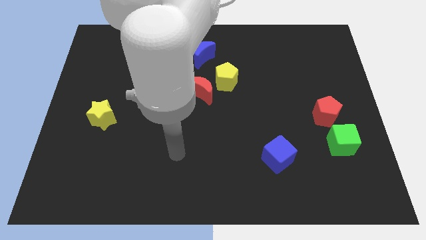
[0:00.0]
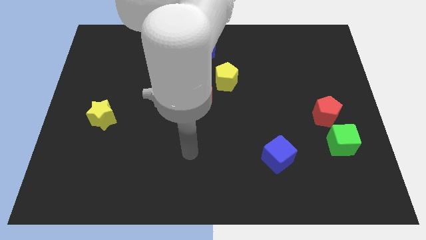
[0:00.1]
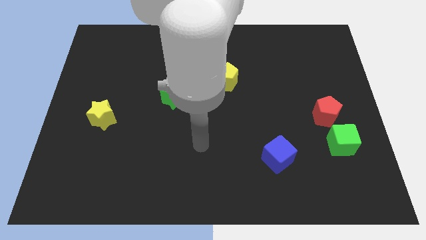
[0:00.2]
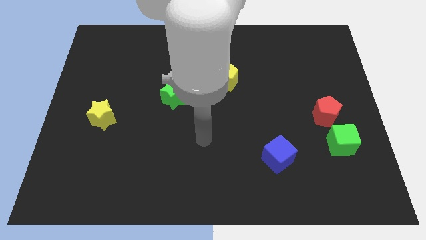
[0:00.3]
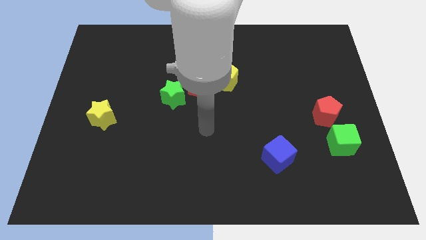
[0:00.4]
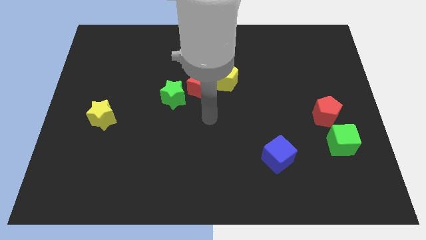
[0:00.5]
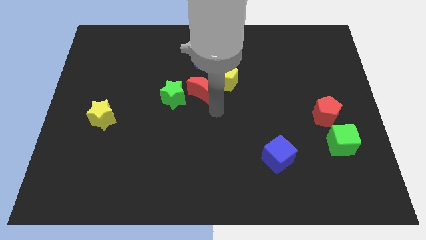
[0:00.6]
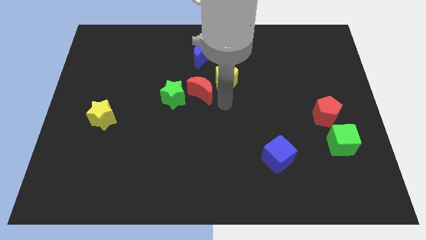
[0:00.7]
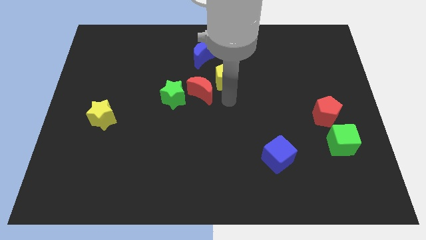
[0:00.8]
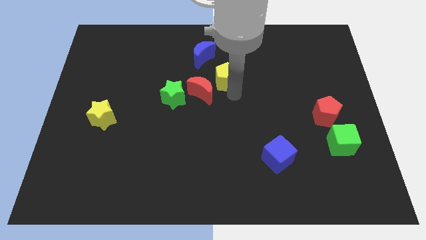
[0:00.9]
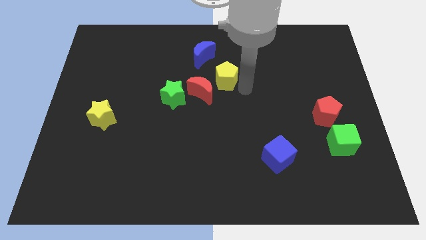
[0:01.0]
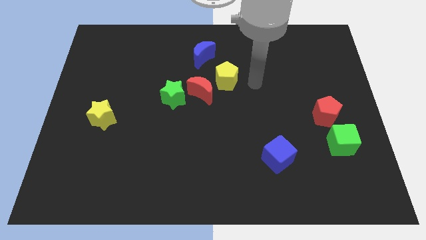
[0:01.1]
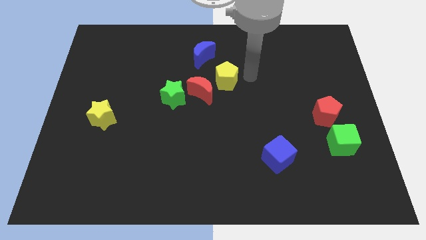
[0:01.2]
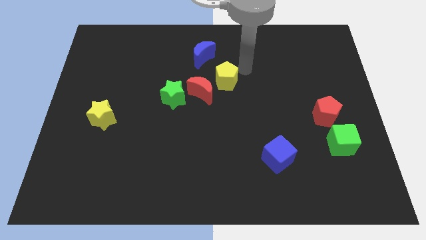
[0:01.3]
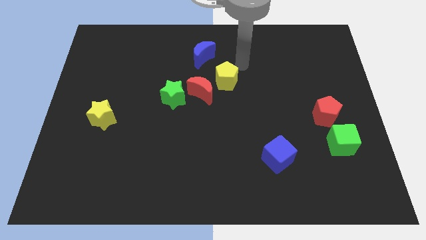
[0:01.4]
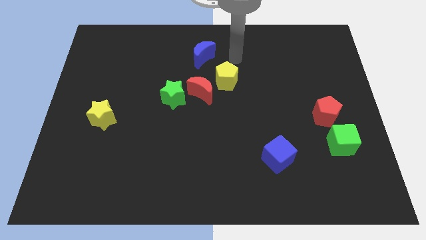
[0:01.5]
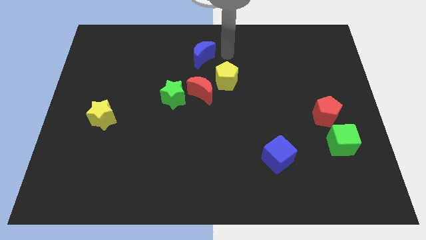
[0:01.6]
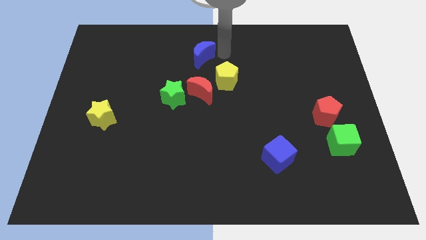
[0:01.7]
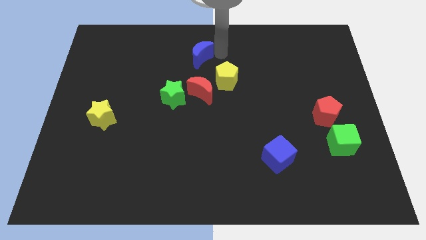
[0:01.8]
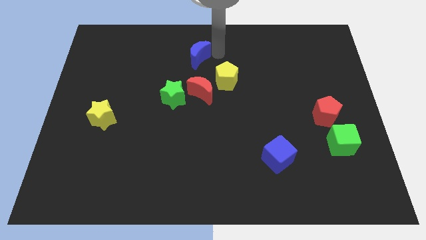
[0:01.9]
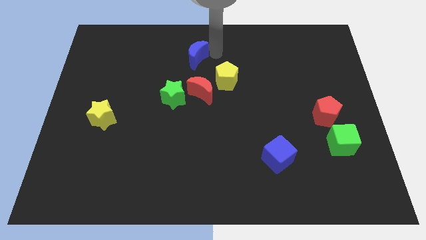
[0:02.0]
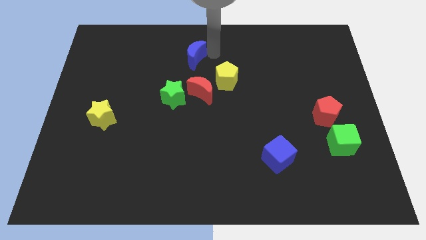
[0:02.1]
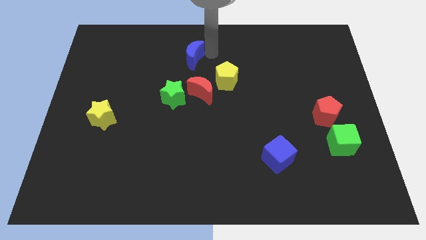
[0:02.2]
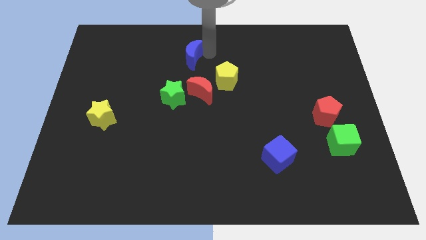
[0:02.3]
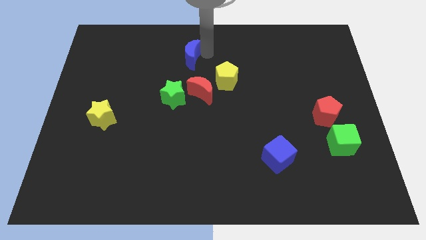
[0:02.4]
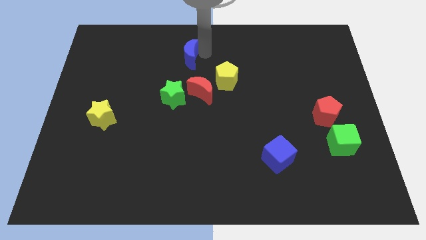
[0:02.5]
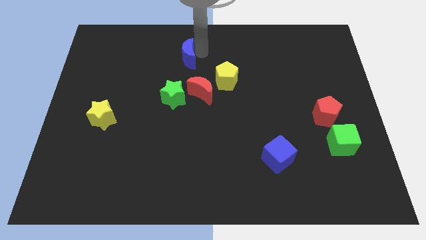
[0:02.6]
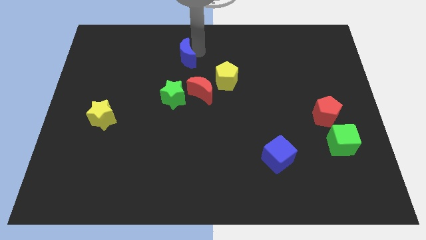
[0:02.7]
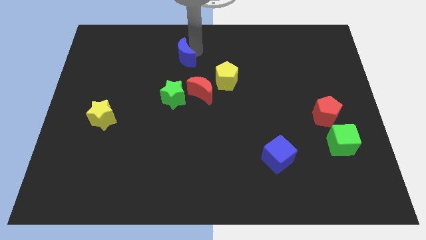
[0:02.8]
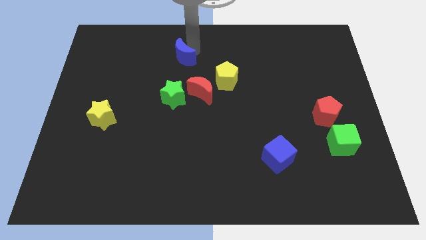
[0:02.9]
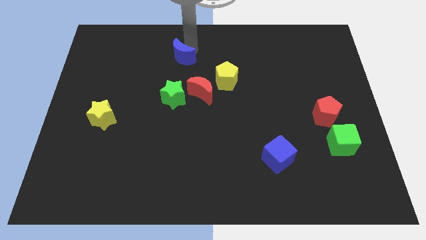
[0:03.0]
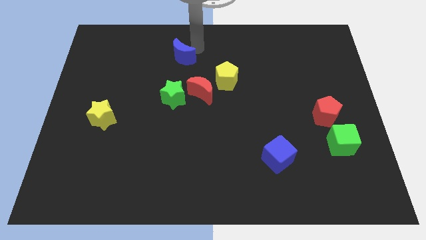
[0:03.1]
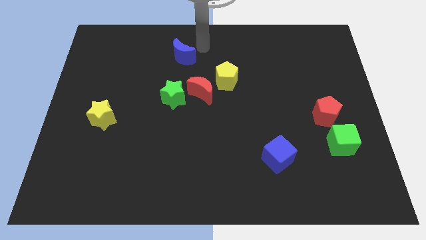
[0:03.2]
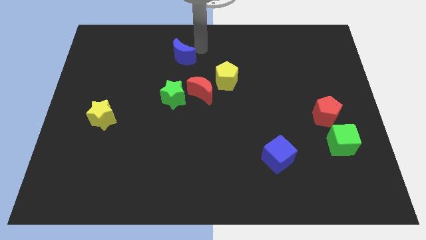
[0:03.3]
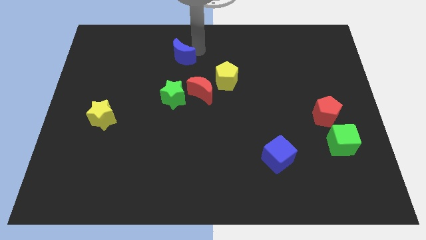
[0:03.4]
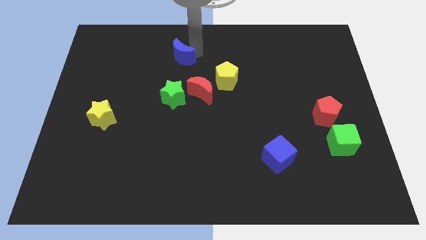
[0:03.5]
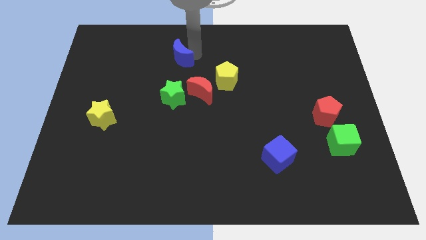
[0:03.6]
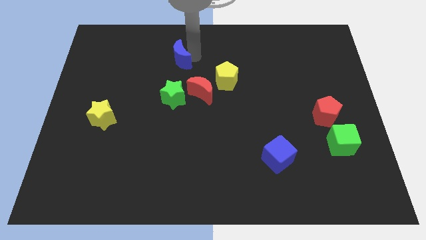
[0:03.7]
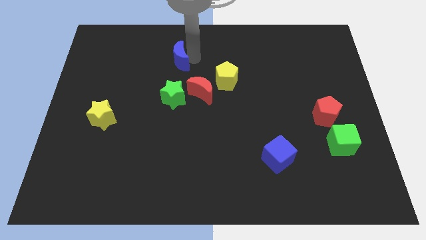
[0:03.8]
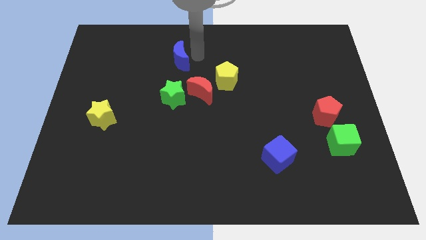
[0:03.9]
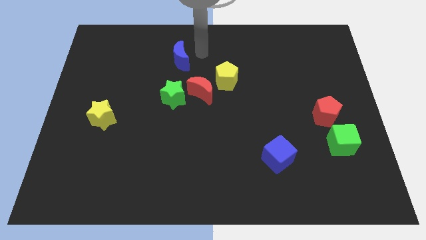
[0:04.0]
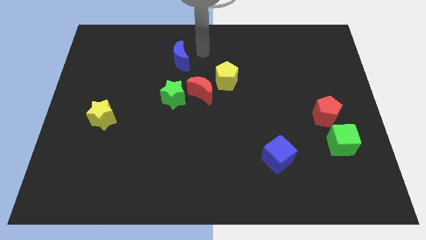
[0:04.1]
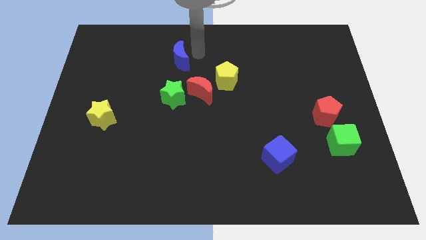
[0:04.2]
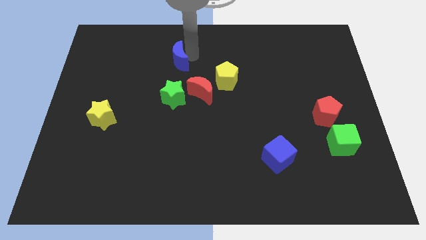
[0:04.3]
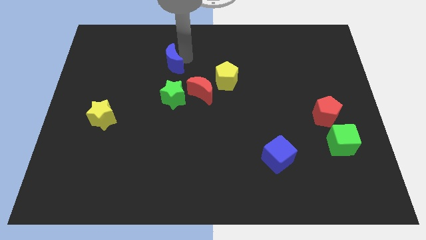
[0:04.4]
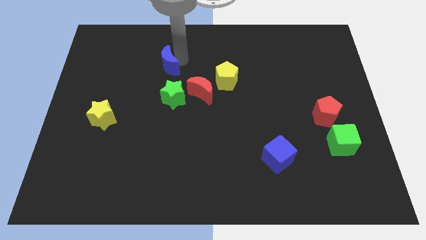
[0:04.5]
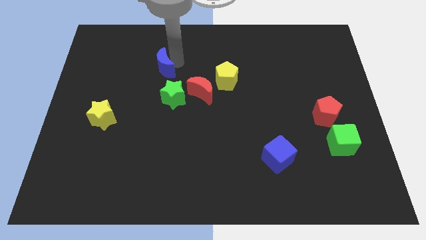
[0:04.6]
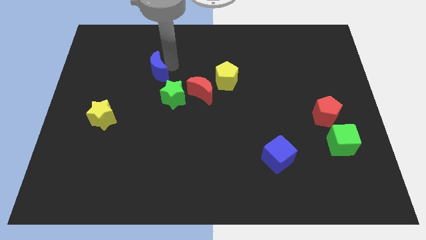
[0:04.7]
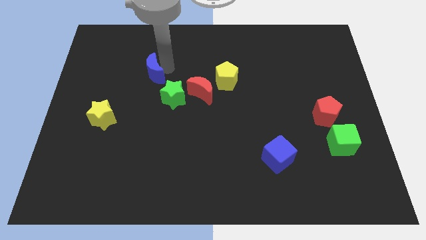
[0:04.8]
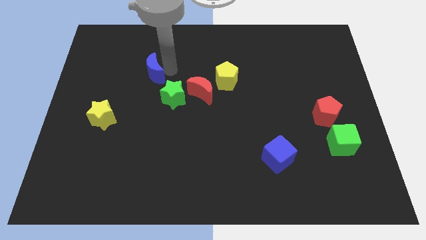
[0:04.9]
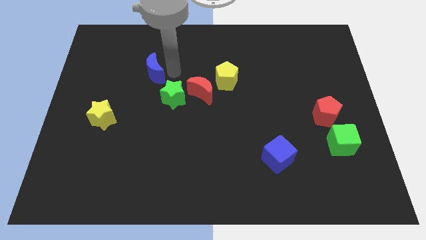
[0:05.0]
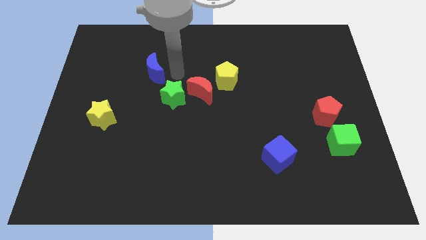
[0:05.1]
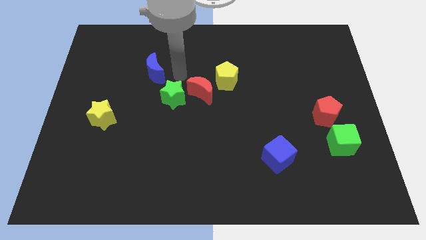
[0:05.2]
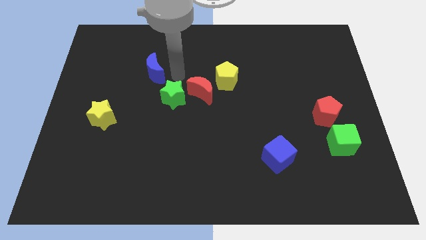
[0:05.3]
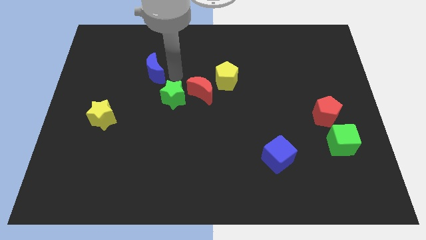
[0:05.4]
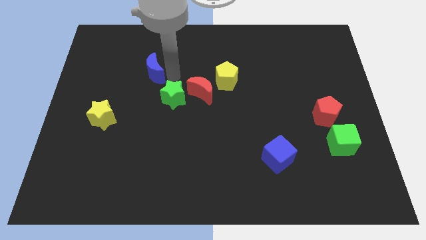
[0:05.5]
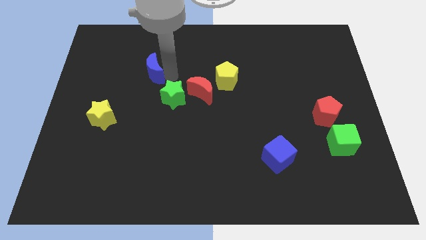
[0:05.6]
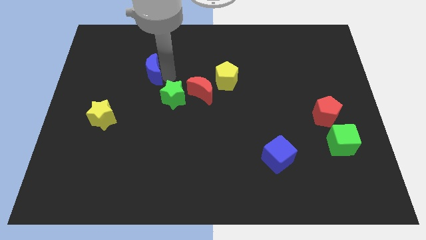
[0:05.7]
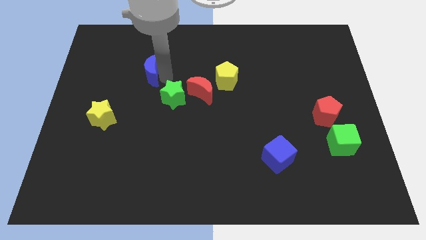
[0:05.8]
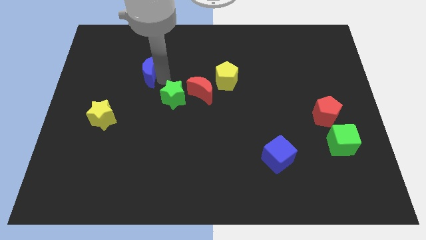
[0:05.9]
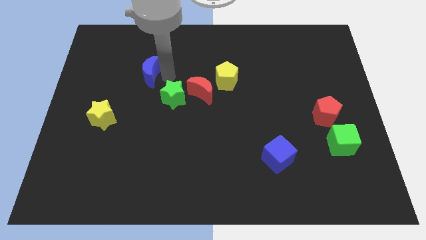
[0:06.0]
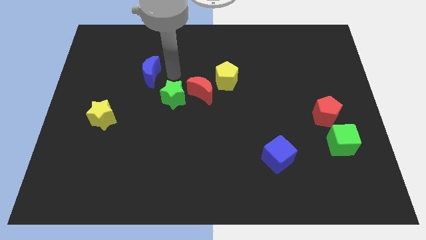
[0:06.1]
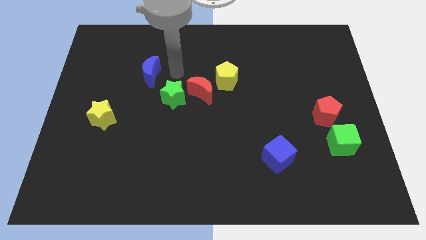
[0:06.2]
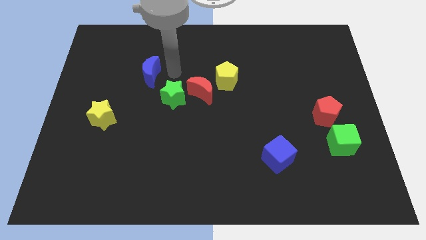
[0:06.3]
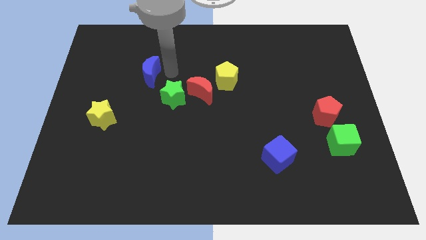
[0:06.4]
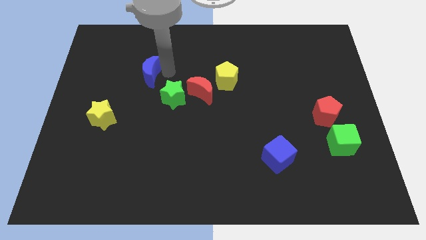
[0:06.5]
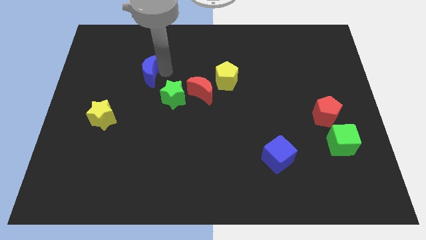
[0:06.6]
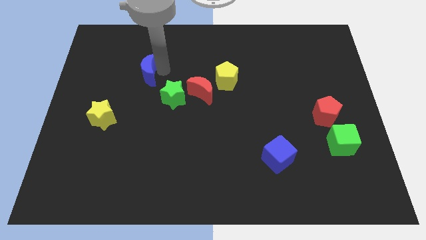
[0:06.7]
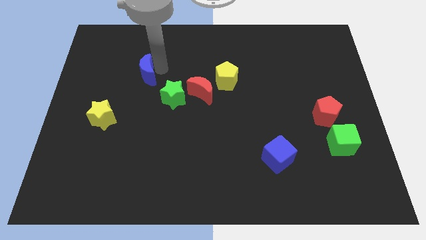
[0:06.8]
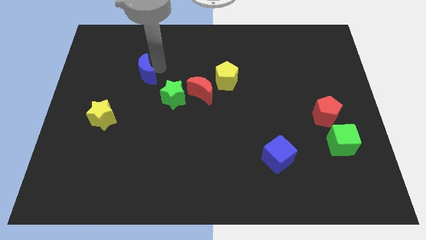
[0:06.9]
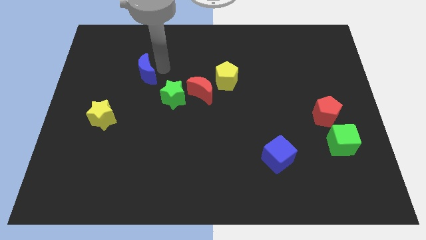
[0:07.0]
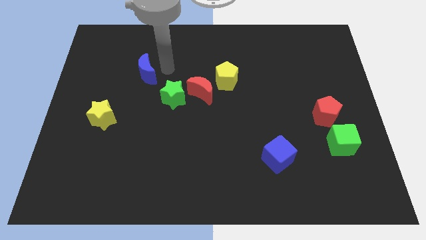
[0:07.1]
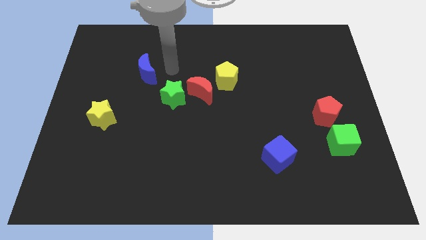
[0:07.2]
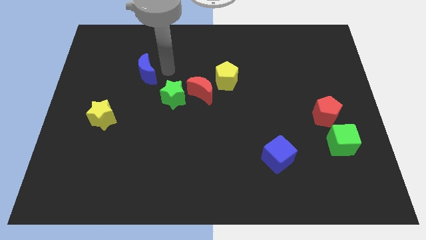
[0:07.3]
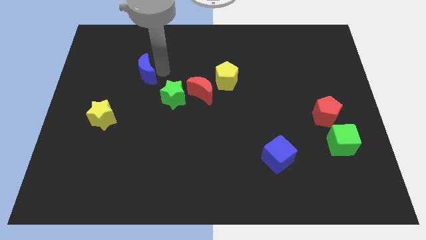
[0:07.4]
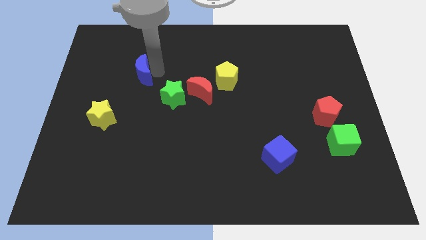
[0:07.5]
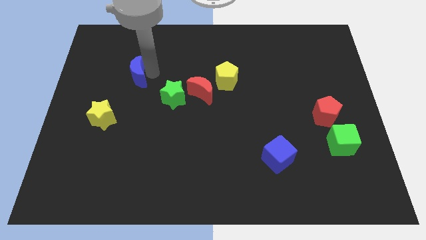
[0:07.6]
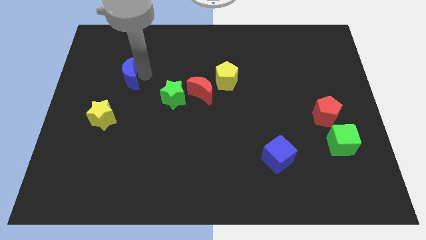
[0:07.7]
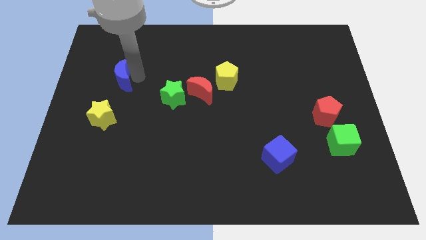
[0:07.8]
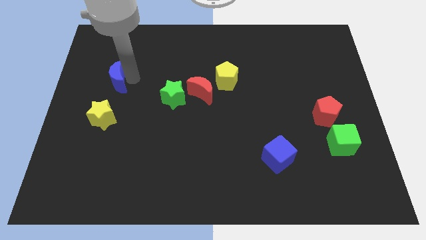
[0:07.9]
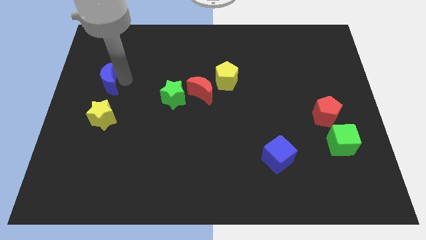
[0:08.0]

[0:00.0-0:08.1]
put the blue moon to the left side of the board
